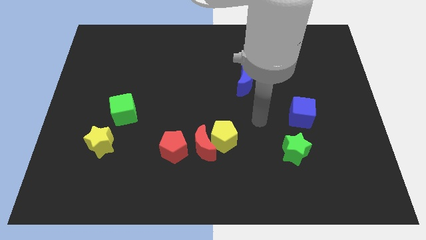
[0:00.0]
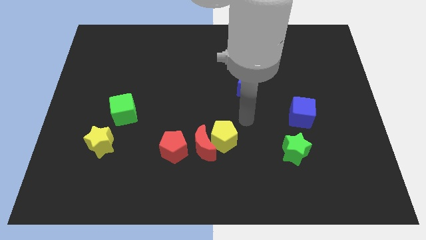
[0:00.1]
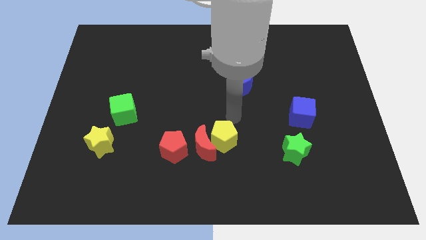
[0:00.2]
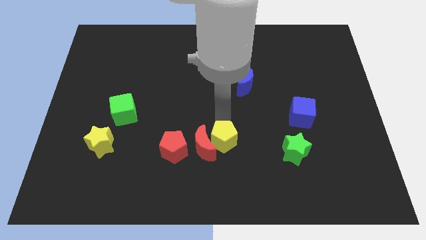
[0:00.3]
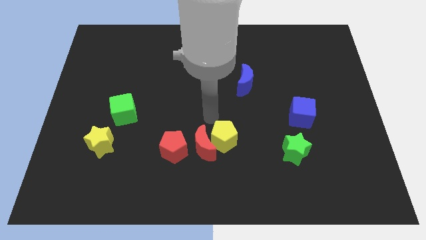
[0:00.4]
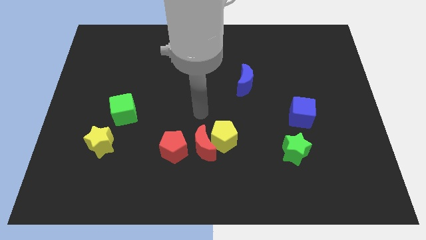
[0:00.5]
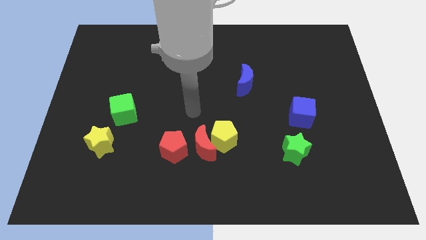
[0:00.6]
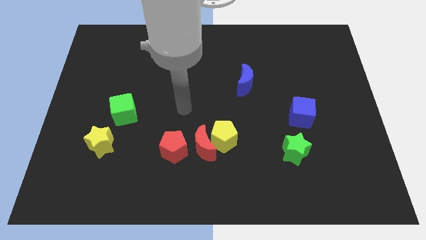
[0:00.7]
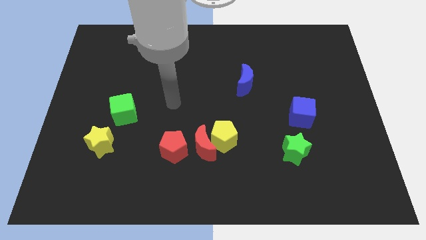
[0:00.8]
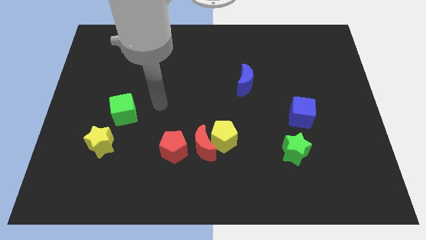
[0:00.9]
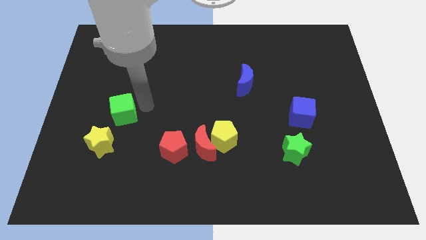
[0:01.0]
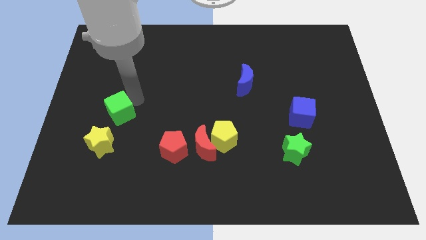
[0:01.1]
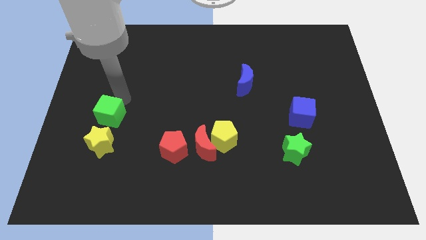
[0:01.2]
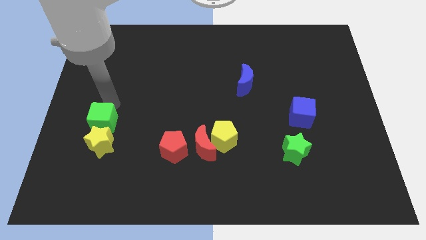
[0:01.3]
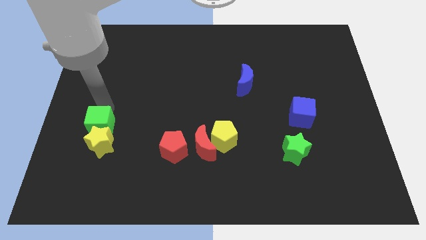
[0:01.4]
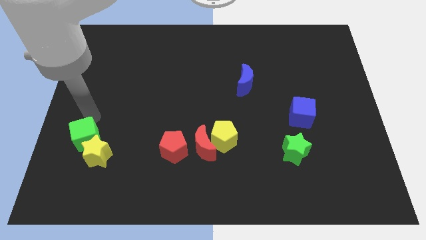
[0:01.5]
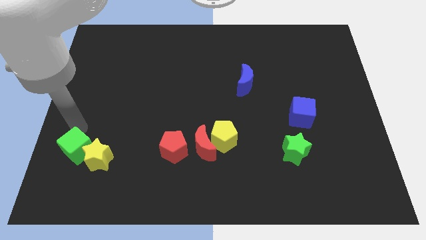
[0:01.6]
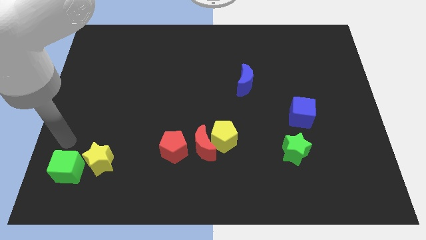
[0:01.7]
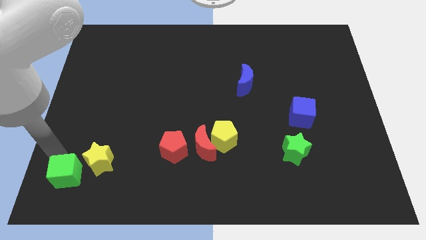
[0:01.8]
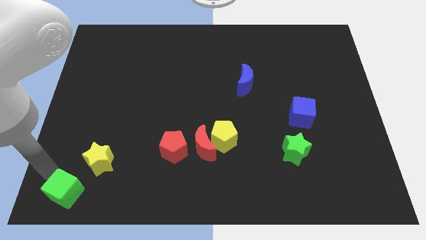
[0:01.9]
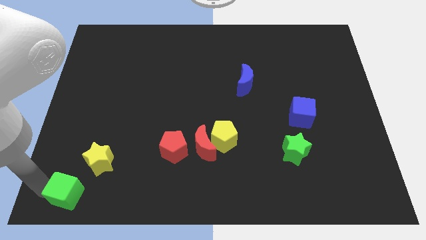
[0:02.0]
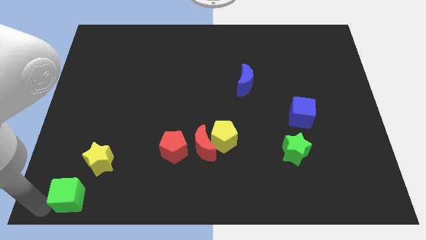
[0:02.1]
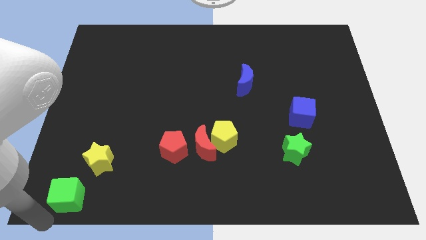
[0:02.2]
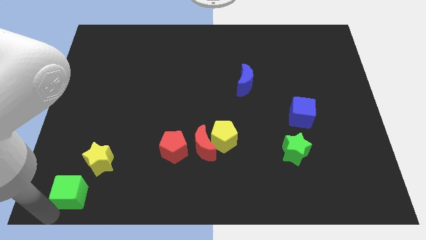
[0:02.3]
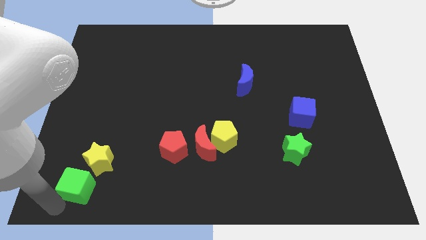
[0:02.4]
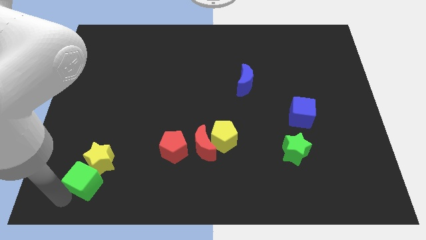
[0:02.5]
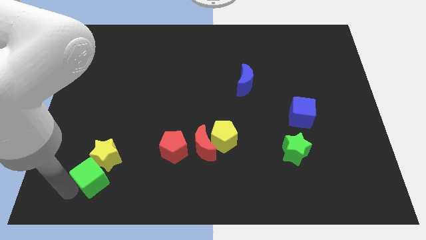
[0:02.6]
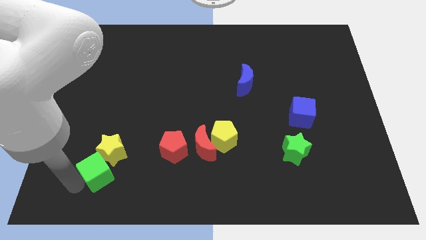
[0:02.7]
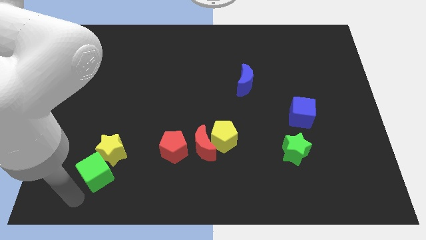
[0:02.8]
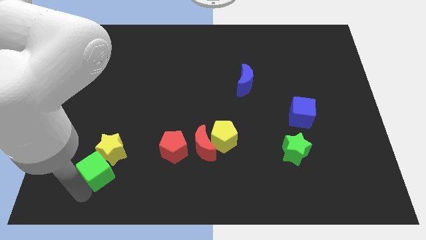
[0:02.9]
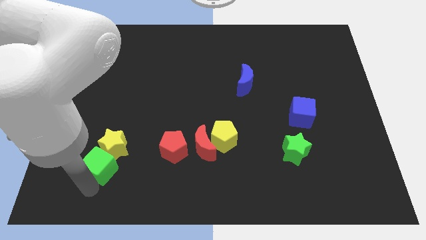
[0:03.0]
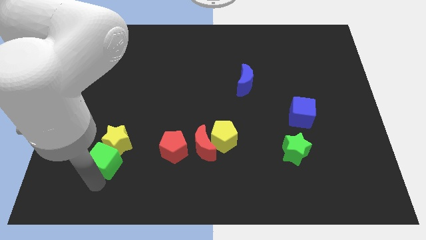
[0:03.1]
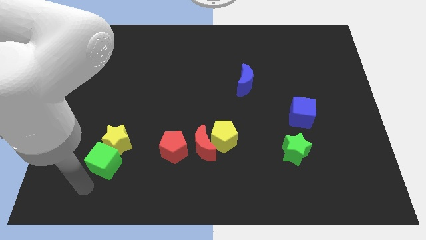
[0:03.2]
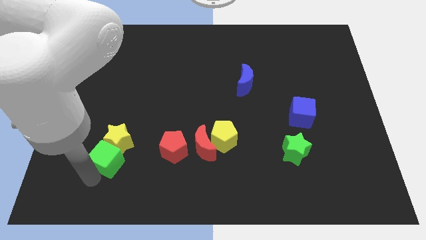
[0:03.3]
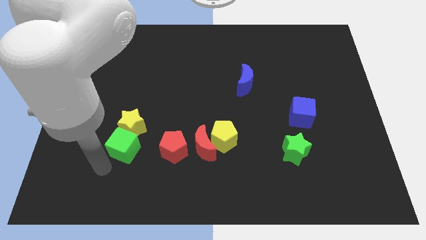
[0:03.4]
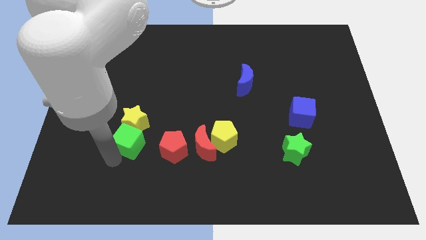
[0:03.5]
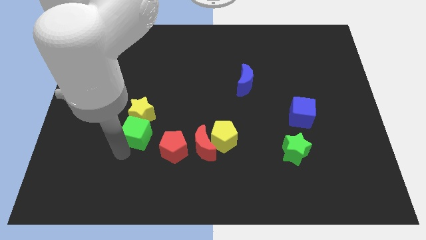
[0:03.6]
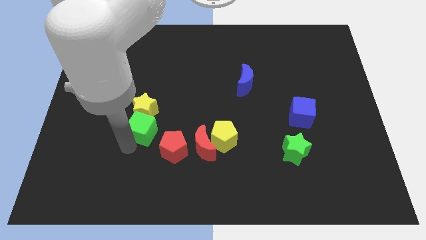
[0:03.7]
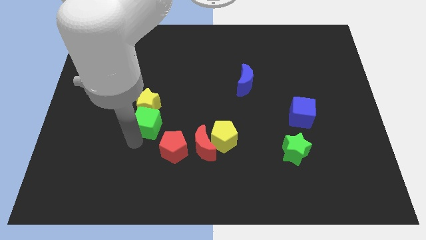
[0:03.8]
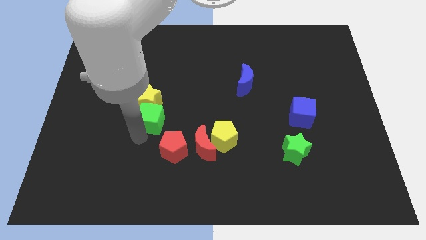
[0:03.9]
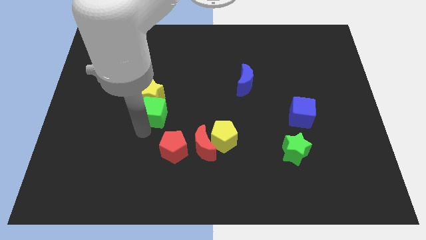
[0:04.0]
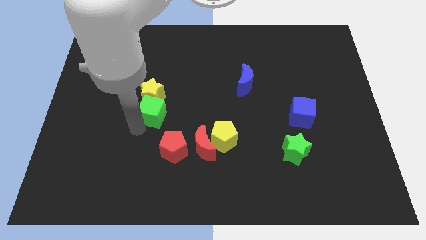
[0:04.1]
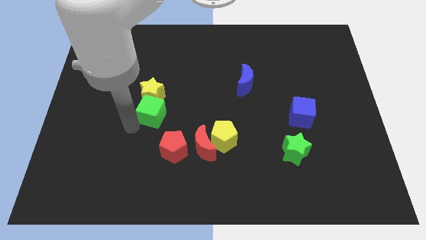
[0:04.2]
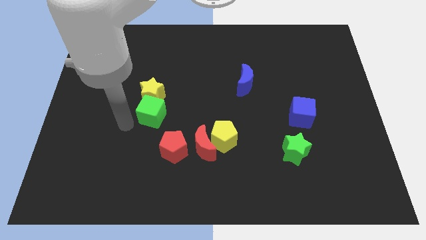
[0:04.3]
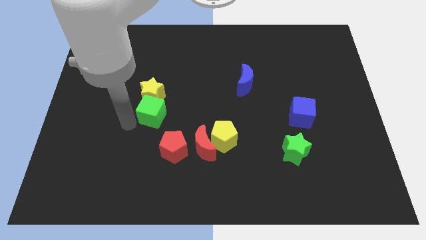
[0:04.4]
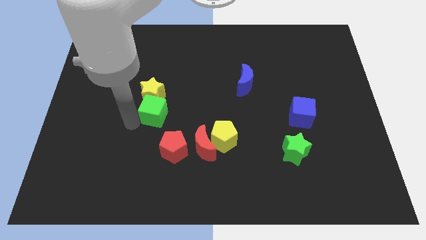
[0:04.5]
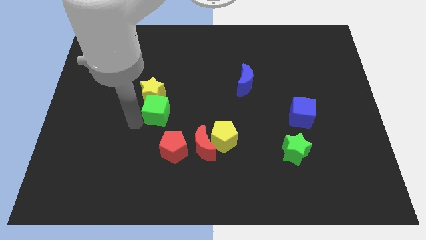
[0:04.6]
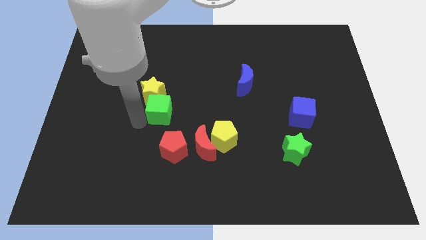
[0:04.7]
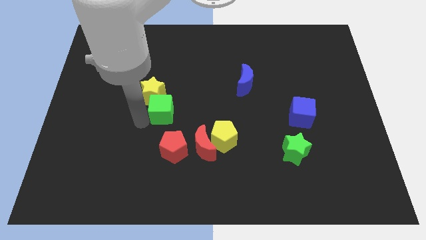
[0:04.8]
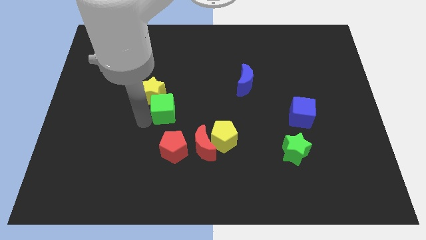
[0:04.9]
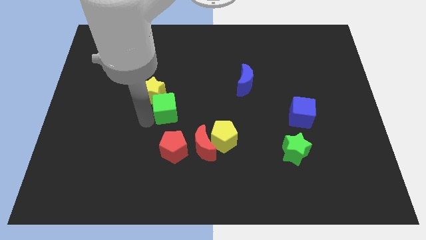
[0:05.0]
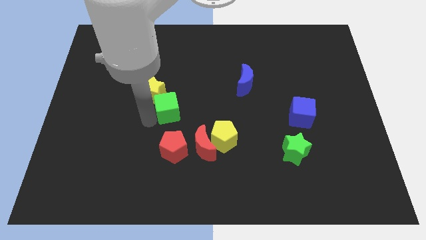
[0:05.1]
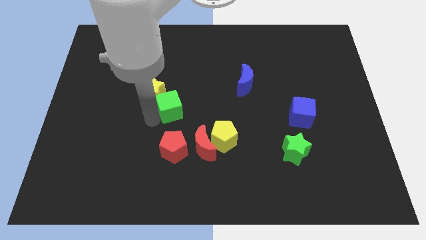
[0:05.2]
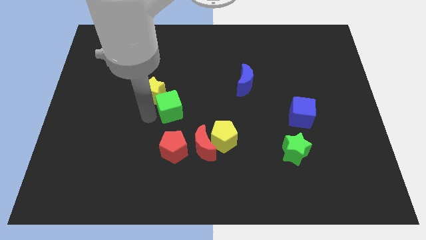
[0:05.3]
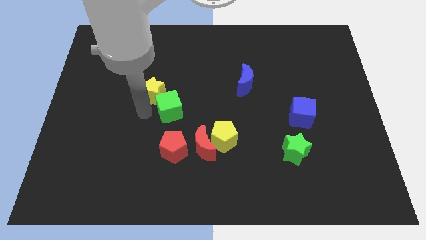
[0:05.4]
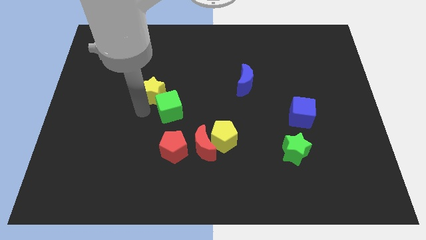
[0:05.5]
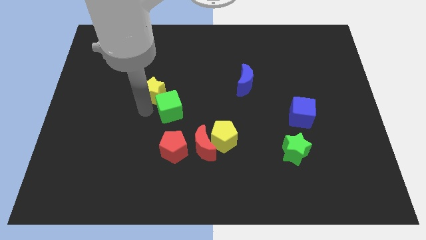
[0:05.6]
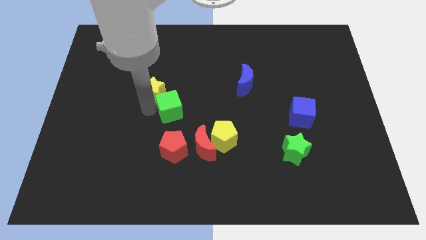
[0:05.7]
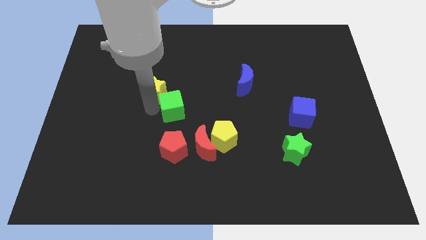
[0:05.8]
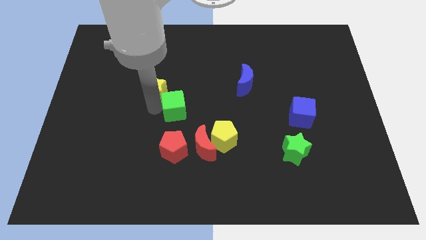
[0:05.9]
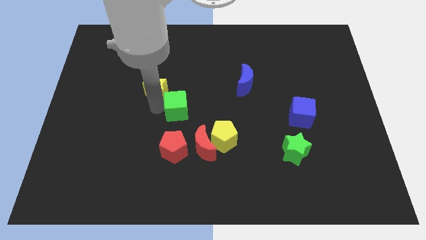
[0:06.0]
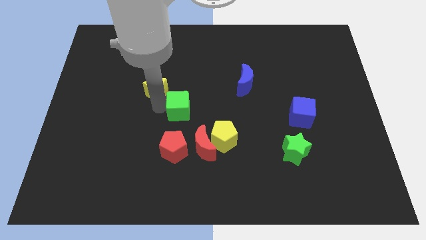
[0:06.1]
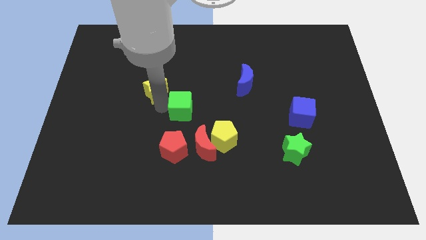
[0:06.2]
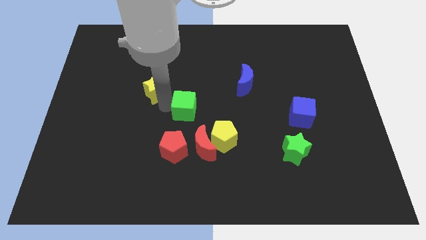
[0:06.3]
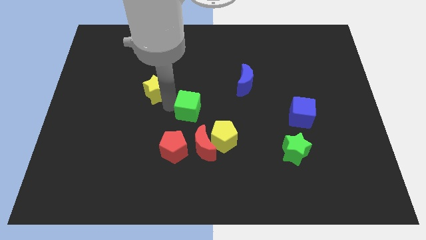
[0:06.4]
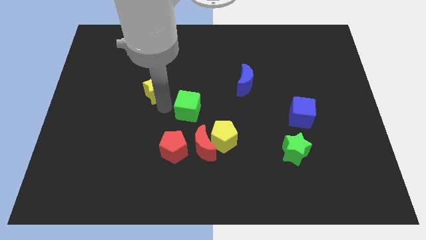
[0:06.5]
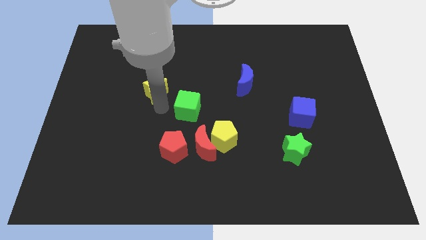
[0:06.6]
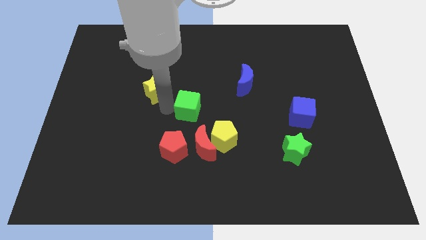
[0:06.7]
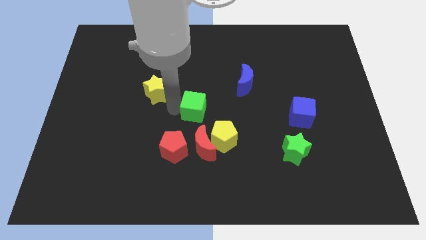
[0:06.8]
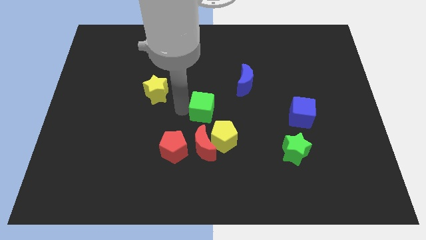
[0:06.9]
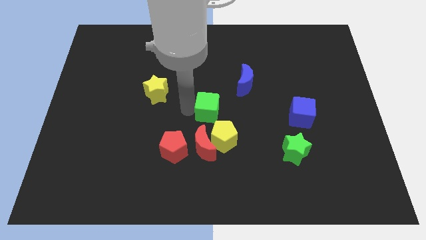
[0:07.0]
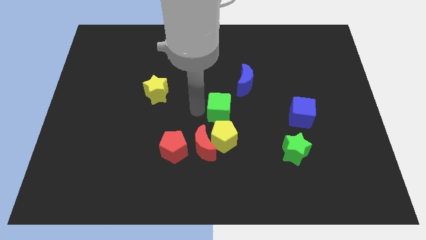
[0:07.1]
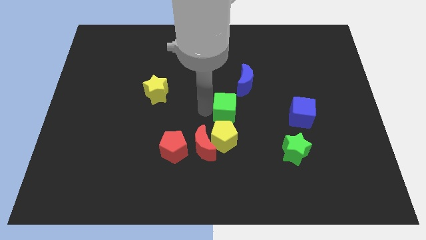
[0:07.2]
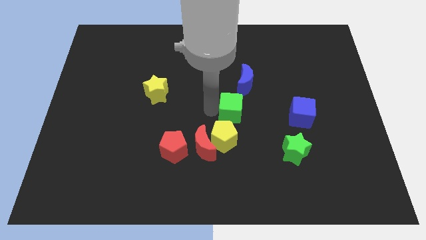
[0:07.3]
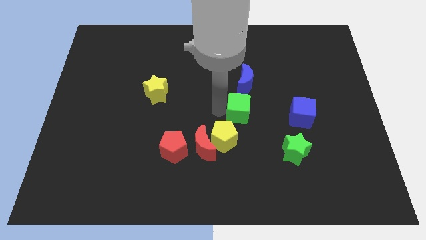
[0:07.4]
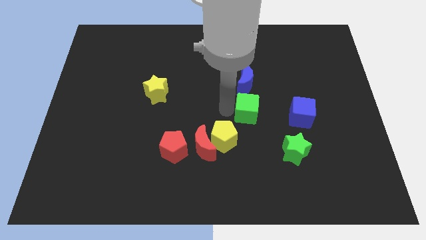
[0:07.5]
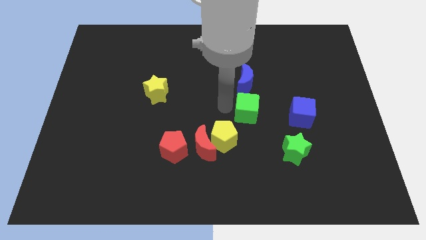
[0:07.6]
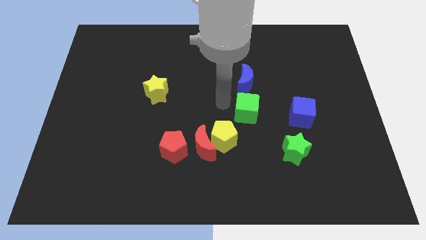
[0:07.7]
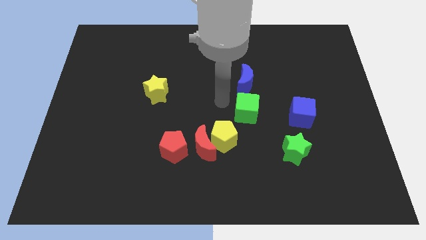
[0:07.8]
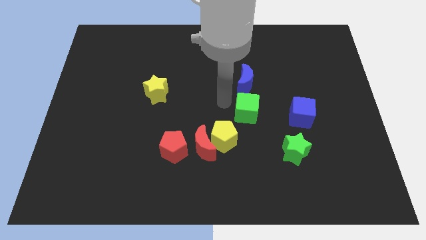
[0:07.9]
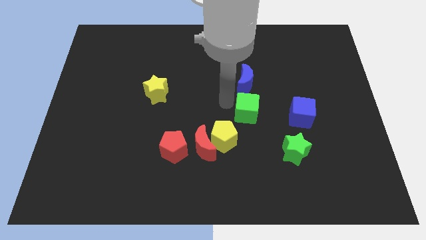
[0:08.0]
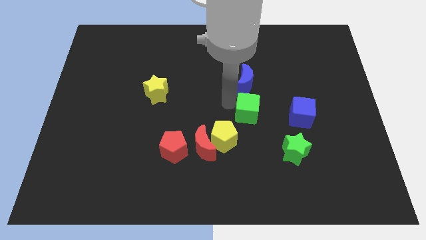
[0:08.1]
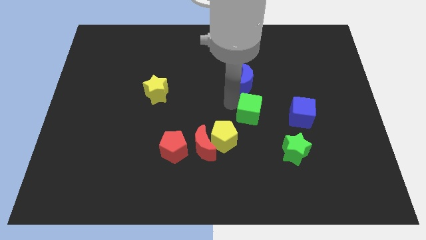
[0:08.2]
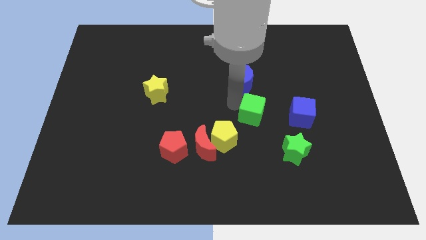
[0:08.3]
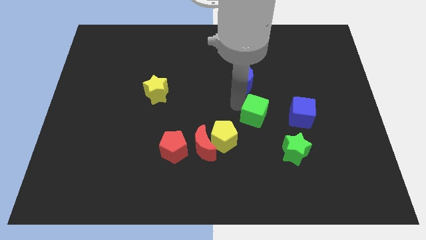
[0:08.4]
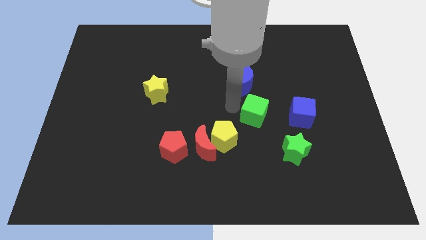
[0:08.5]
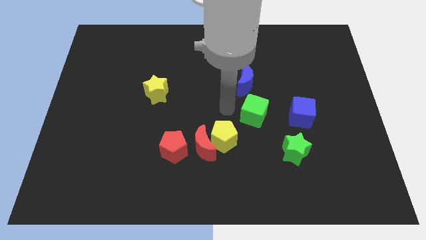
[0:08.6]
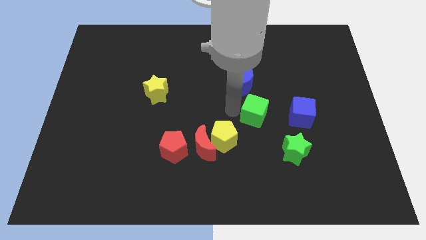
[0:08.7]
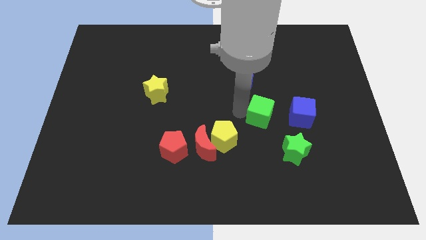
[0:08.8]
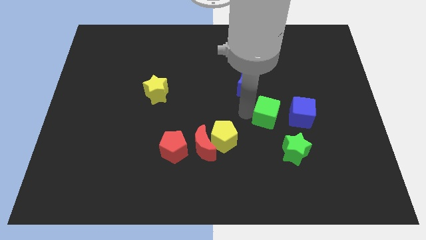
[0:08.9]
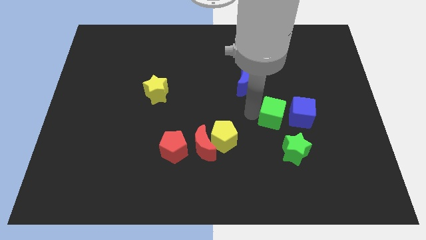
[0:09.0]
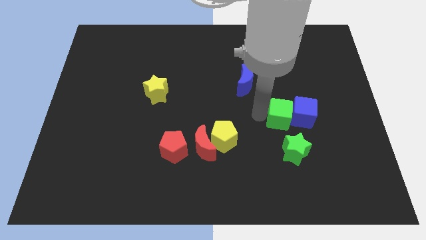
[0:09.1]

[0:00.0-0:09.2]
push the green cube to the blue cube
